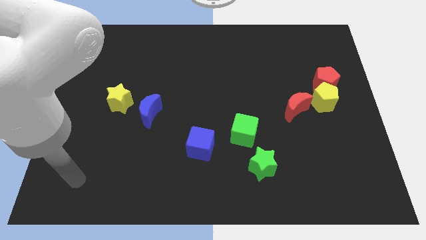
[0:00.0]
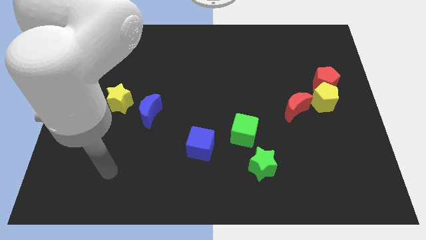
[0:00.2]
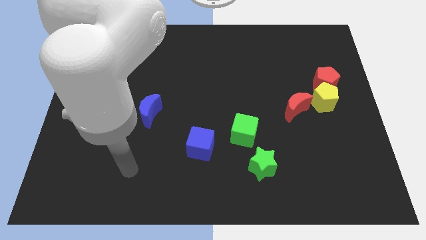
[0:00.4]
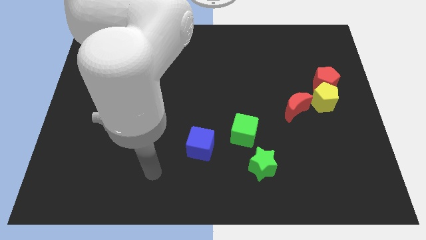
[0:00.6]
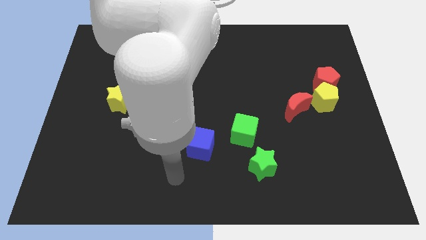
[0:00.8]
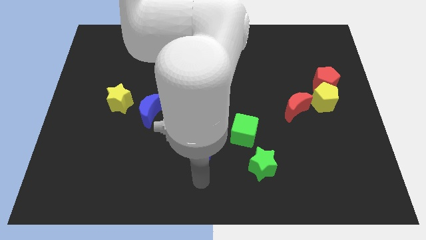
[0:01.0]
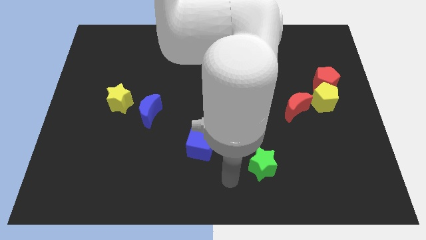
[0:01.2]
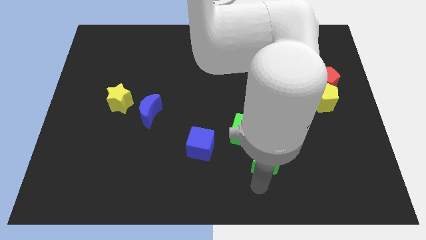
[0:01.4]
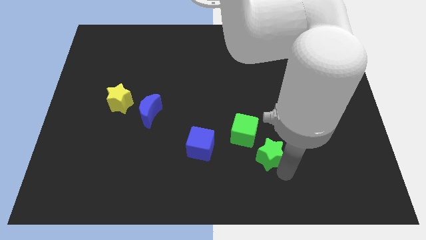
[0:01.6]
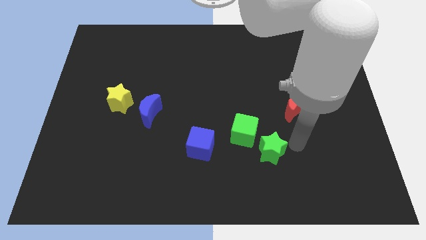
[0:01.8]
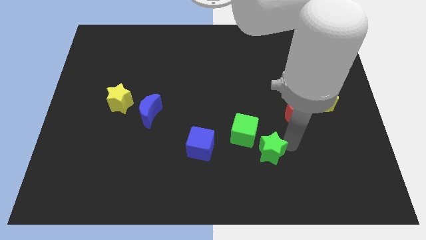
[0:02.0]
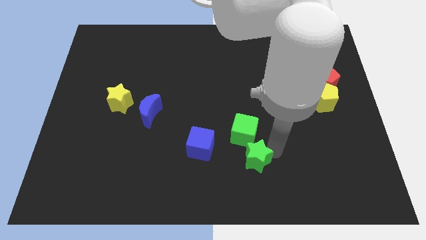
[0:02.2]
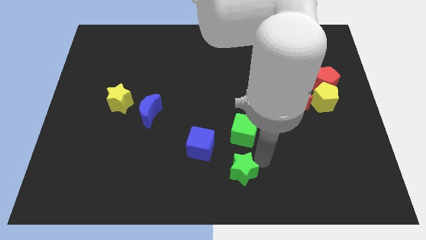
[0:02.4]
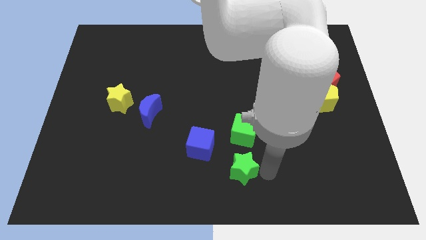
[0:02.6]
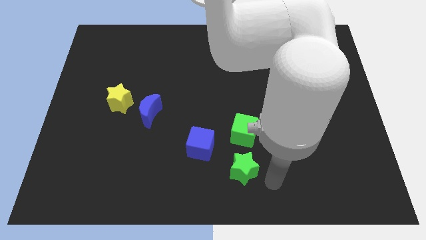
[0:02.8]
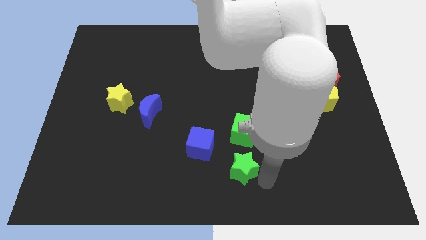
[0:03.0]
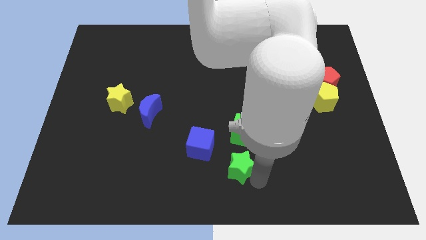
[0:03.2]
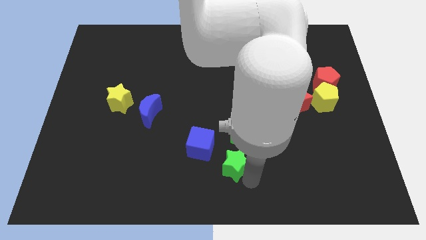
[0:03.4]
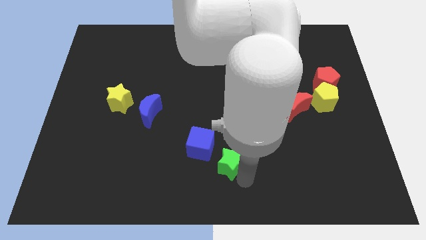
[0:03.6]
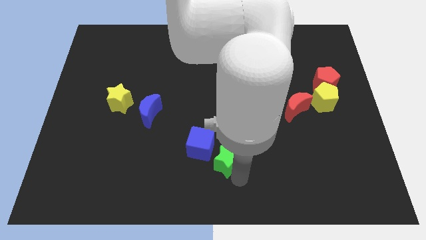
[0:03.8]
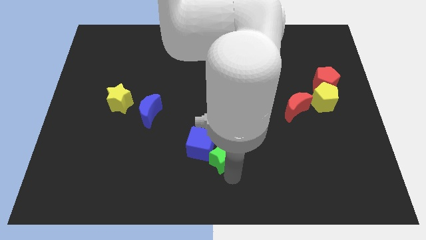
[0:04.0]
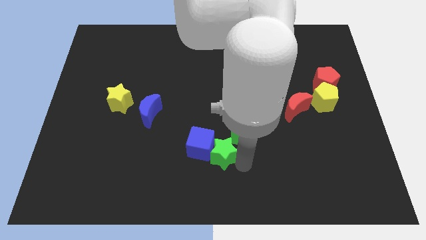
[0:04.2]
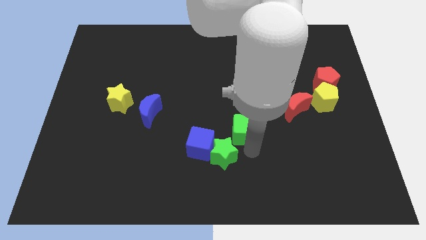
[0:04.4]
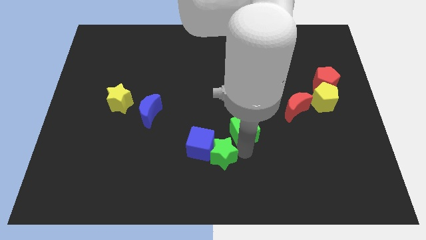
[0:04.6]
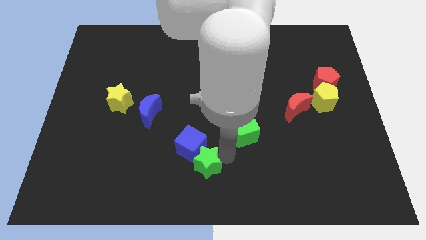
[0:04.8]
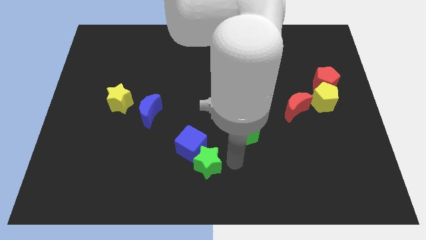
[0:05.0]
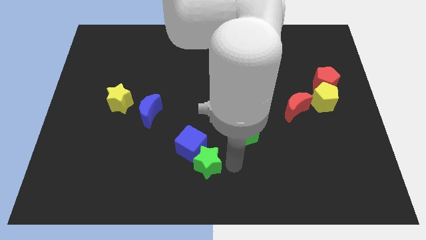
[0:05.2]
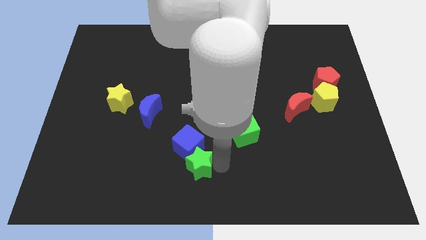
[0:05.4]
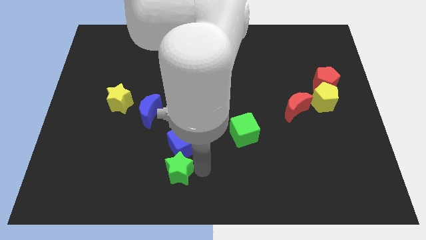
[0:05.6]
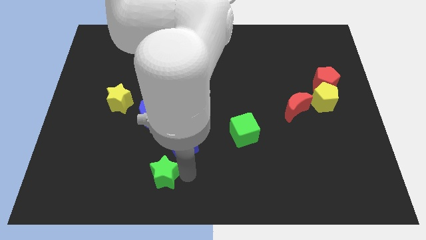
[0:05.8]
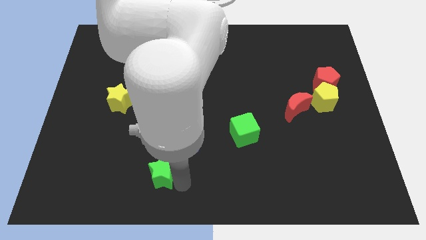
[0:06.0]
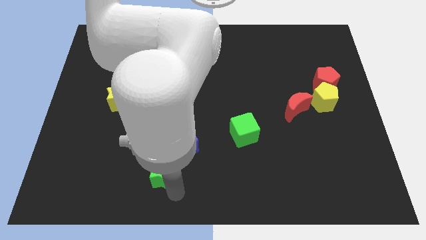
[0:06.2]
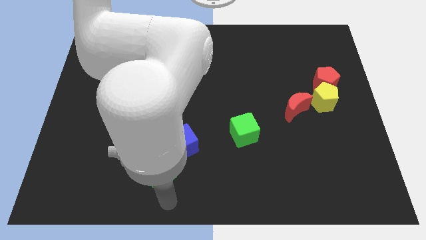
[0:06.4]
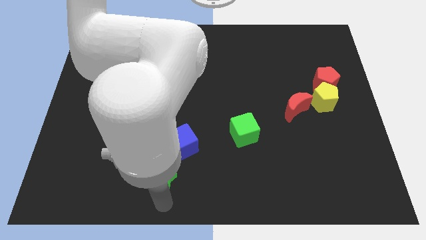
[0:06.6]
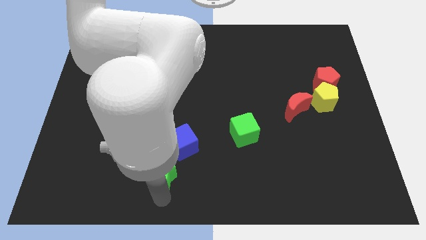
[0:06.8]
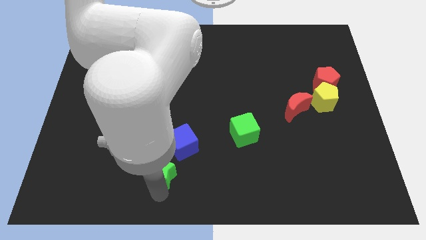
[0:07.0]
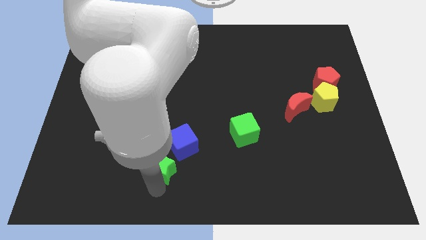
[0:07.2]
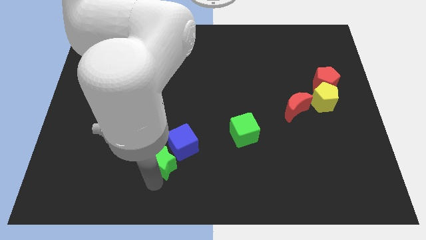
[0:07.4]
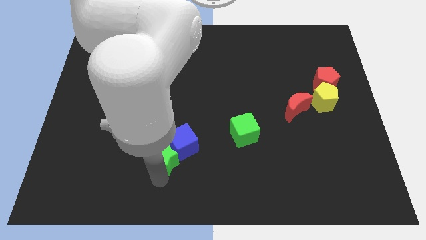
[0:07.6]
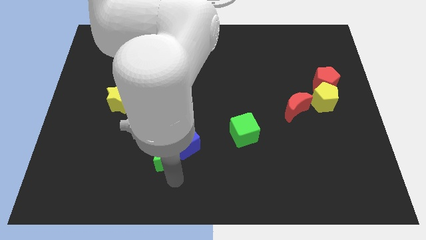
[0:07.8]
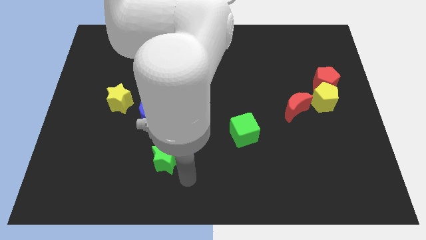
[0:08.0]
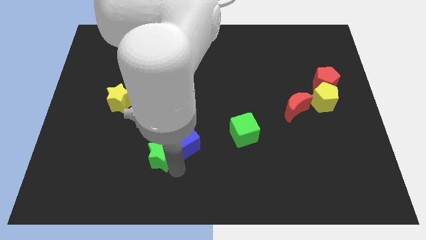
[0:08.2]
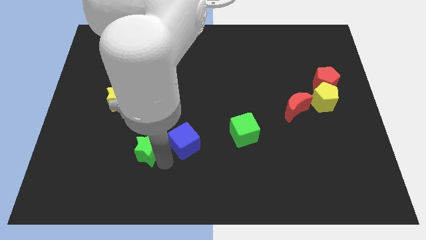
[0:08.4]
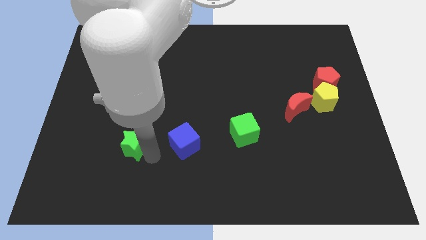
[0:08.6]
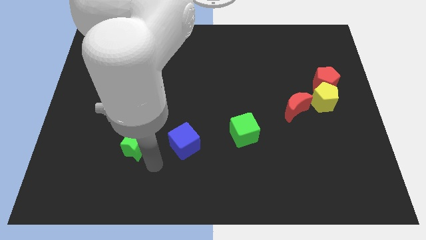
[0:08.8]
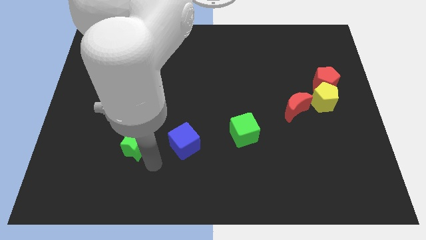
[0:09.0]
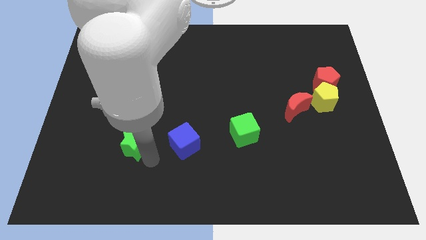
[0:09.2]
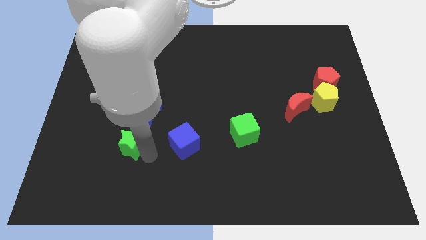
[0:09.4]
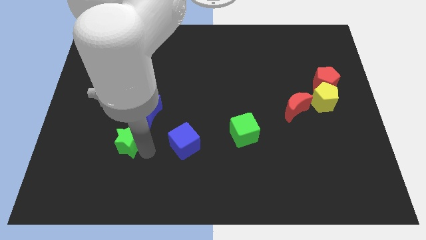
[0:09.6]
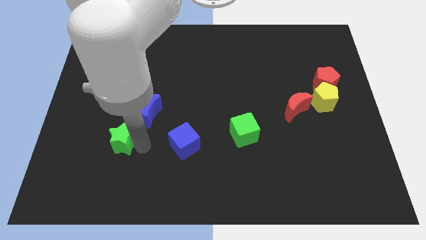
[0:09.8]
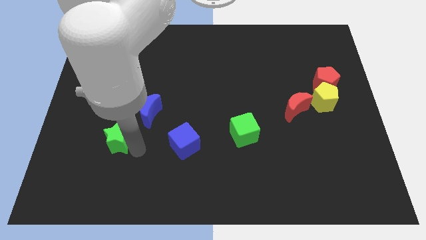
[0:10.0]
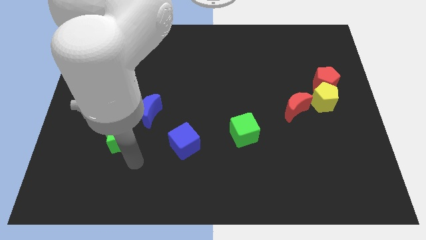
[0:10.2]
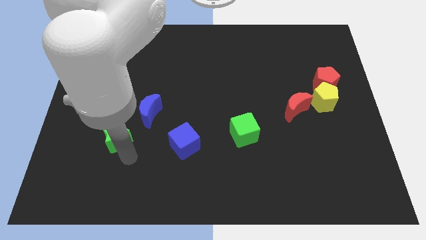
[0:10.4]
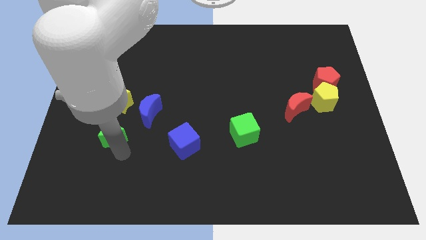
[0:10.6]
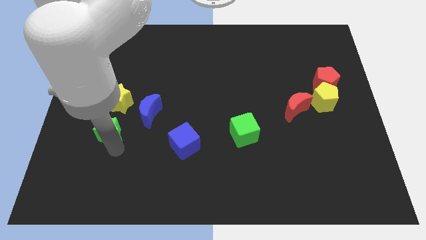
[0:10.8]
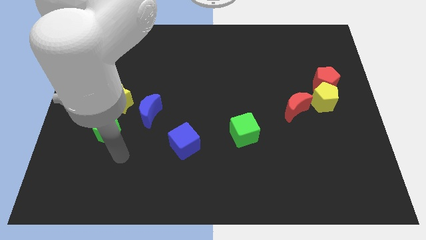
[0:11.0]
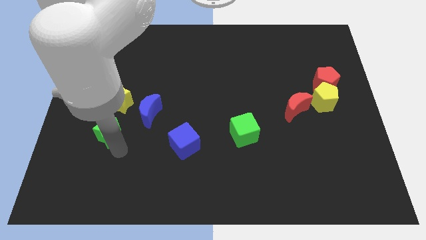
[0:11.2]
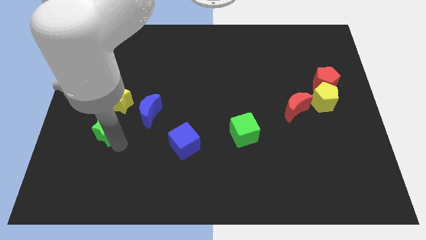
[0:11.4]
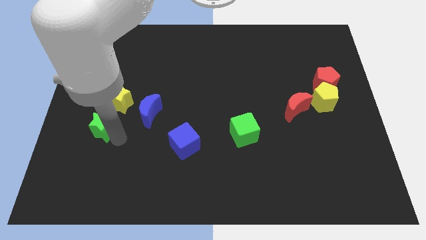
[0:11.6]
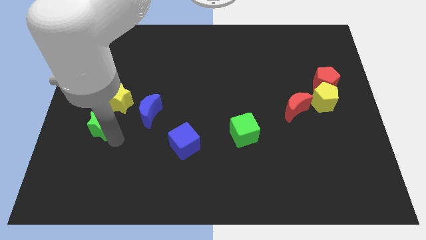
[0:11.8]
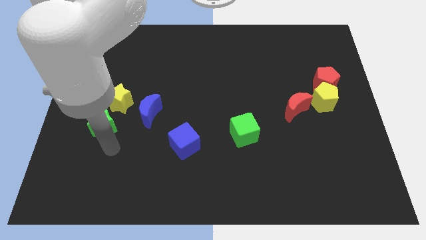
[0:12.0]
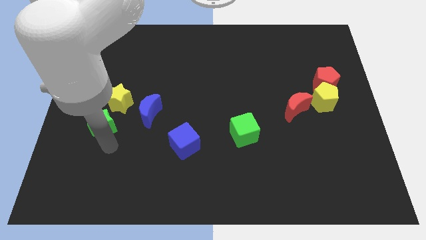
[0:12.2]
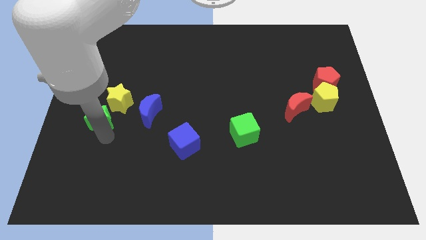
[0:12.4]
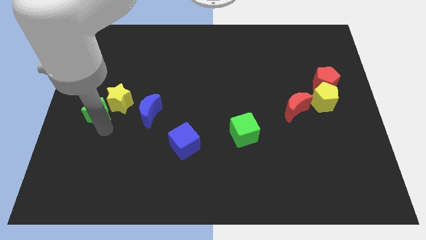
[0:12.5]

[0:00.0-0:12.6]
push the green star to the center left
